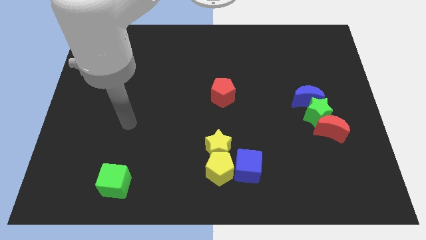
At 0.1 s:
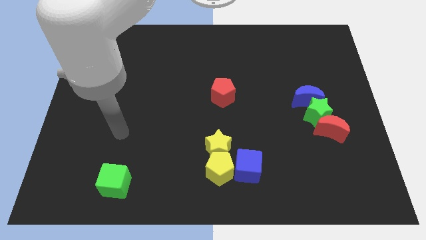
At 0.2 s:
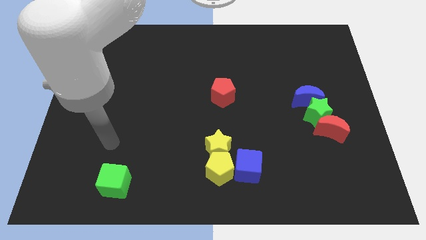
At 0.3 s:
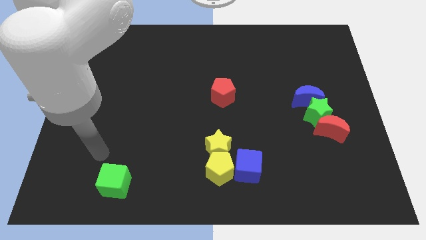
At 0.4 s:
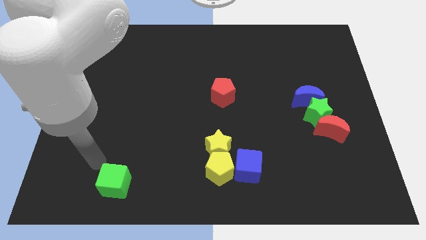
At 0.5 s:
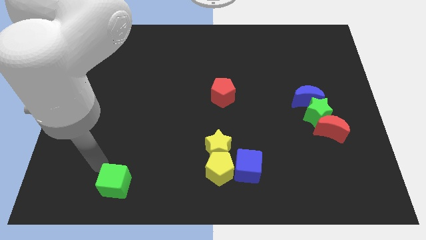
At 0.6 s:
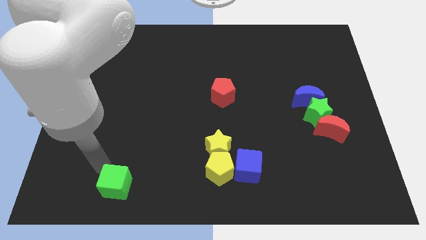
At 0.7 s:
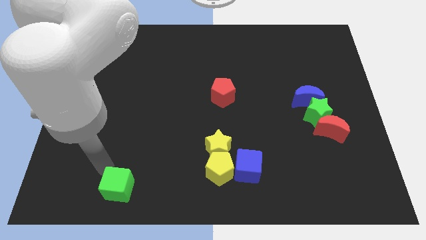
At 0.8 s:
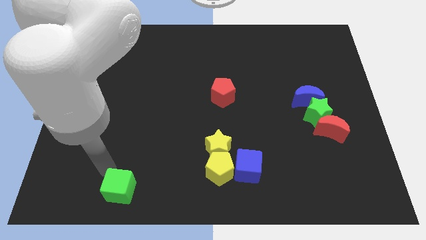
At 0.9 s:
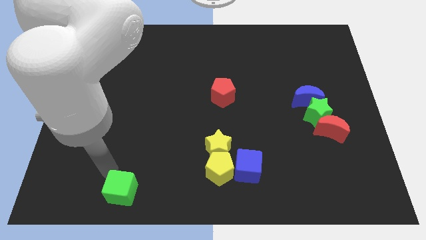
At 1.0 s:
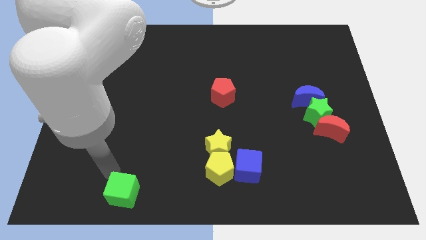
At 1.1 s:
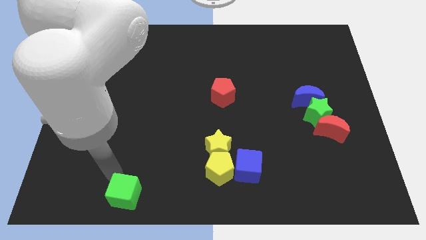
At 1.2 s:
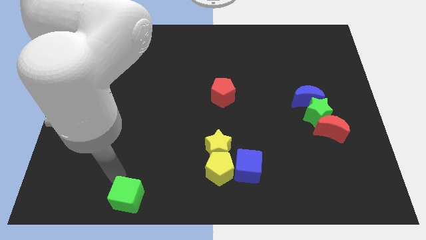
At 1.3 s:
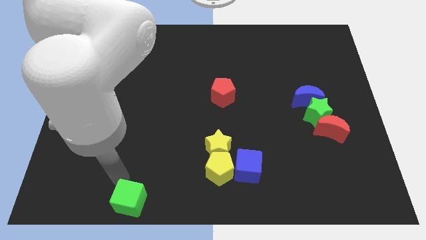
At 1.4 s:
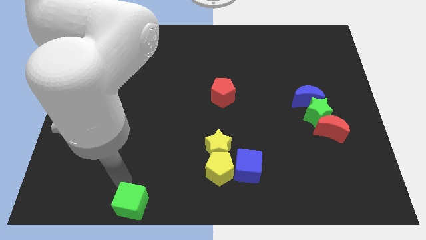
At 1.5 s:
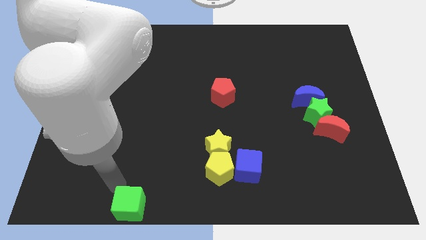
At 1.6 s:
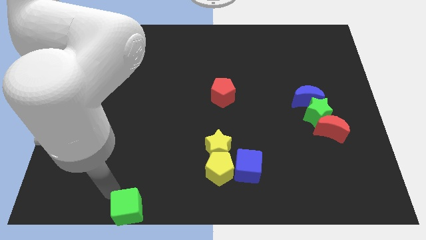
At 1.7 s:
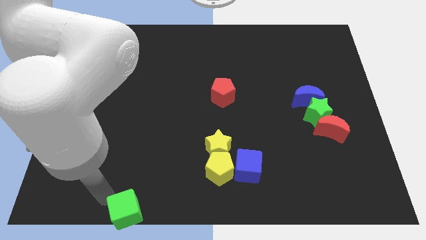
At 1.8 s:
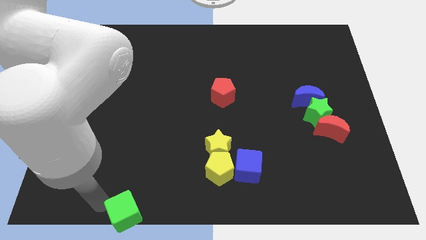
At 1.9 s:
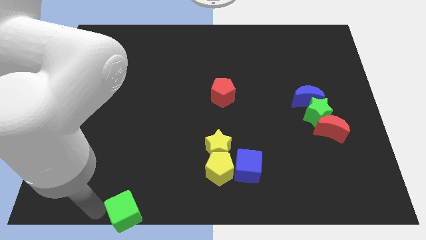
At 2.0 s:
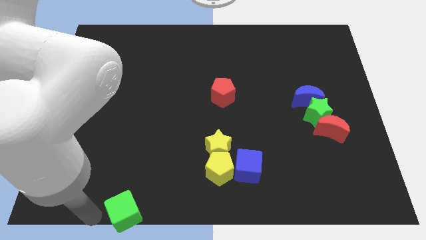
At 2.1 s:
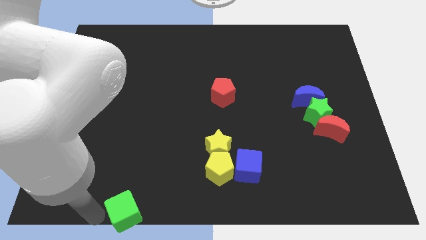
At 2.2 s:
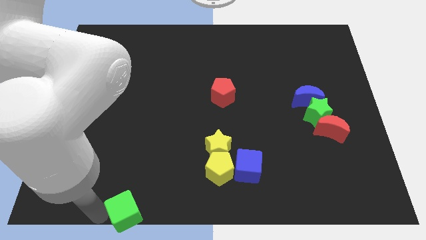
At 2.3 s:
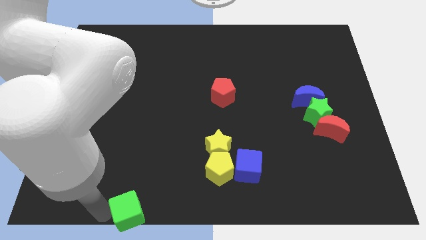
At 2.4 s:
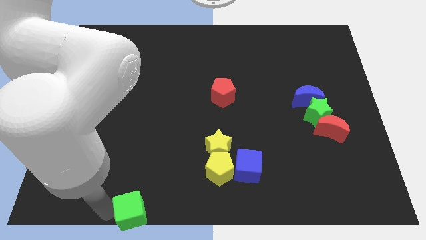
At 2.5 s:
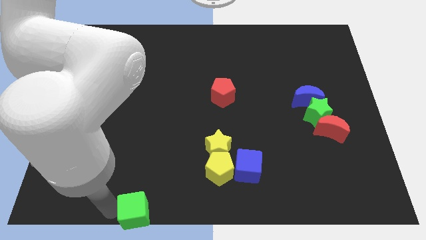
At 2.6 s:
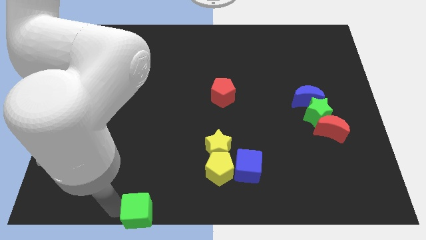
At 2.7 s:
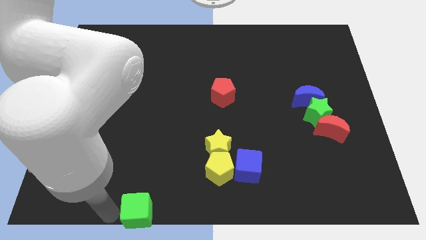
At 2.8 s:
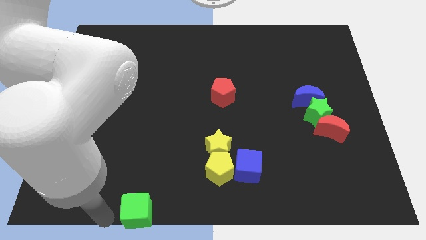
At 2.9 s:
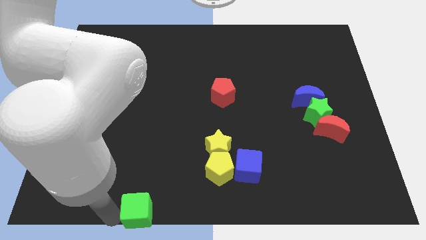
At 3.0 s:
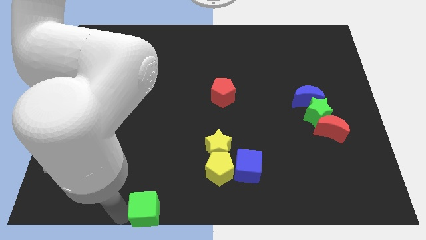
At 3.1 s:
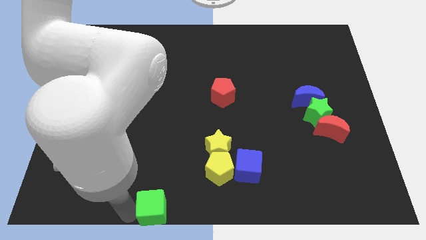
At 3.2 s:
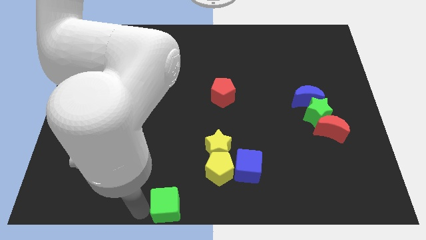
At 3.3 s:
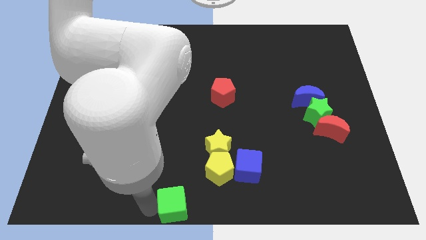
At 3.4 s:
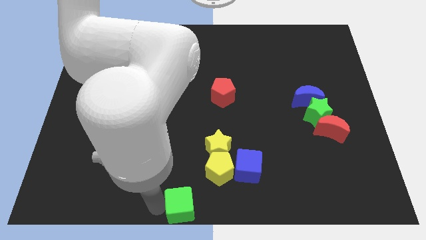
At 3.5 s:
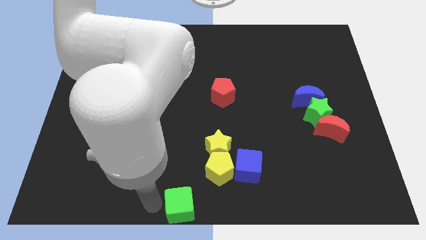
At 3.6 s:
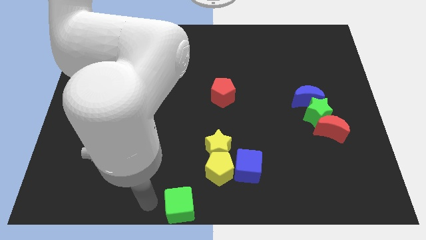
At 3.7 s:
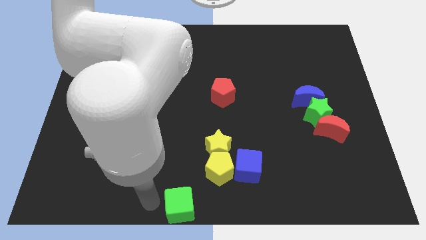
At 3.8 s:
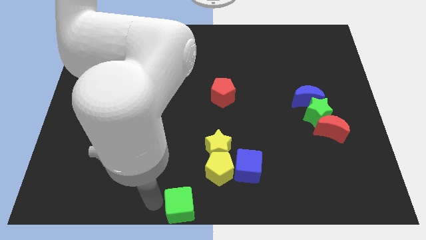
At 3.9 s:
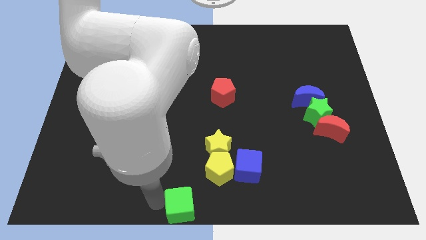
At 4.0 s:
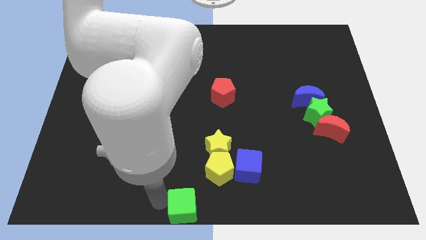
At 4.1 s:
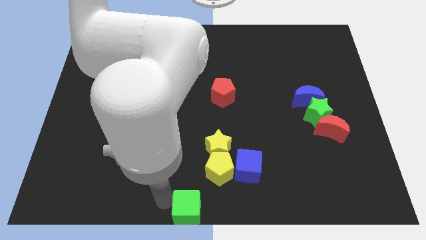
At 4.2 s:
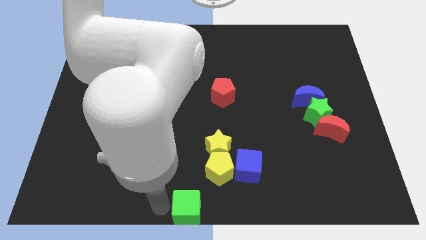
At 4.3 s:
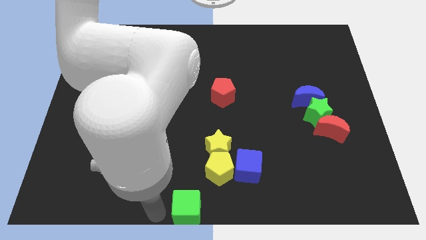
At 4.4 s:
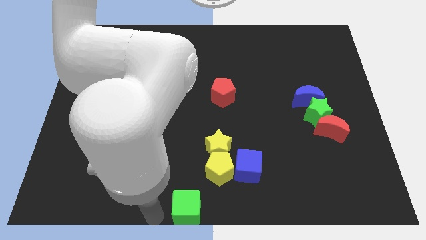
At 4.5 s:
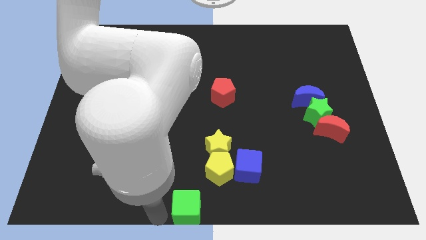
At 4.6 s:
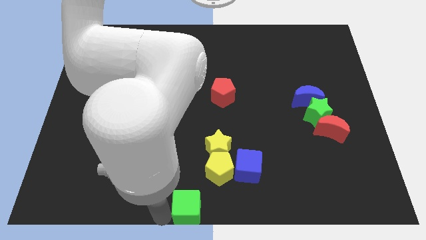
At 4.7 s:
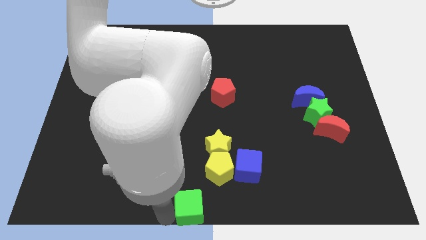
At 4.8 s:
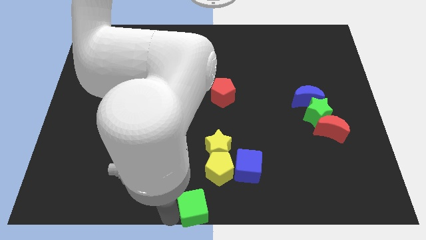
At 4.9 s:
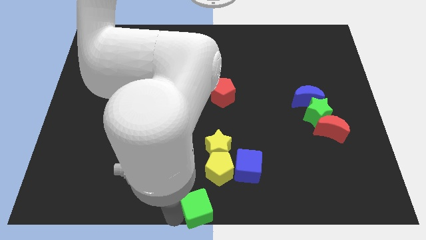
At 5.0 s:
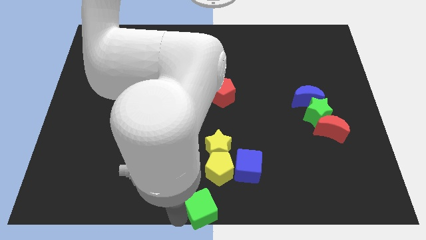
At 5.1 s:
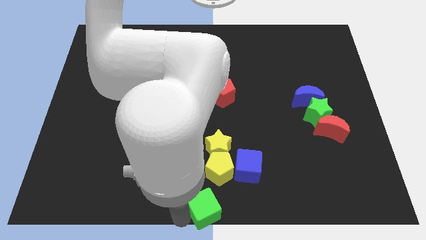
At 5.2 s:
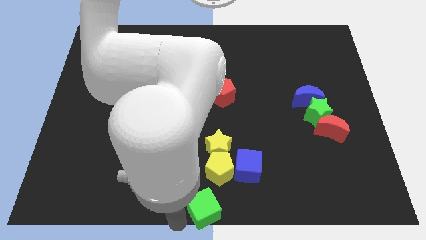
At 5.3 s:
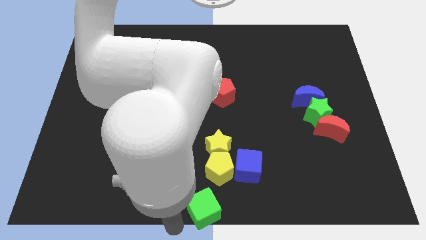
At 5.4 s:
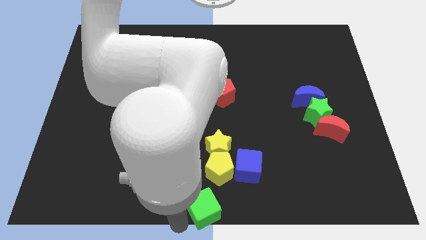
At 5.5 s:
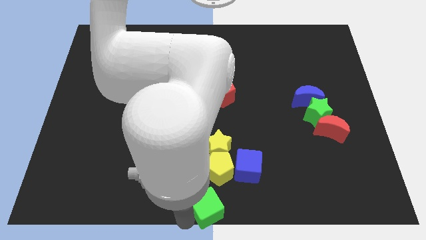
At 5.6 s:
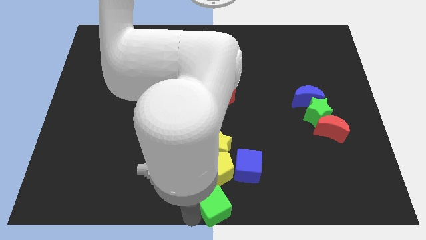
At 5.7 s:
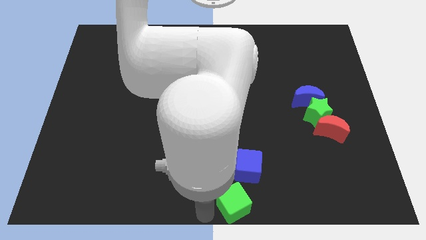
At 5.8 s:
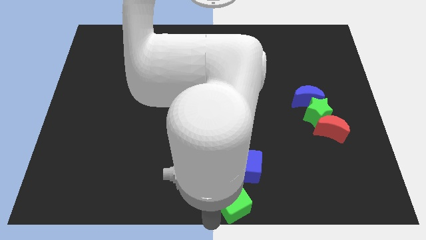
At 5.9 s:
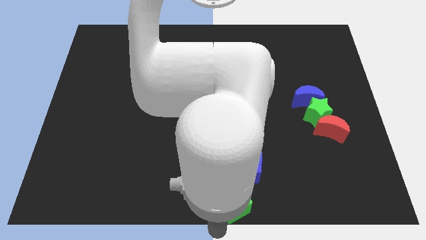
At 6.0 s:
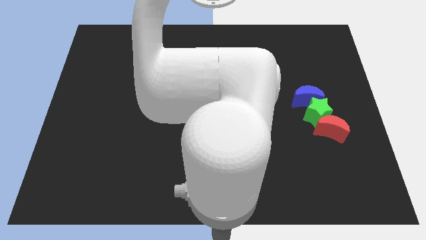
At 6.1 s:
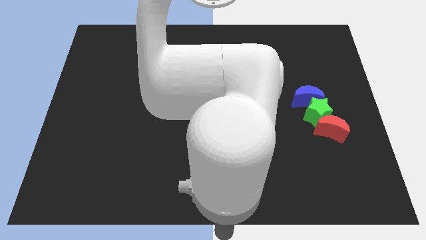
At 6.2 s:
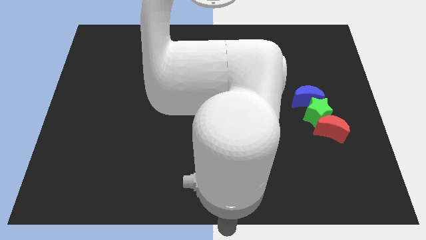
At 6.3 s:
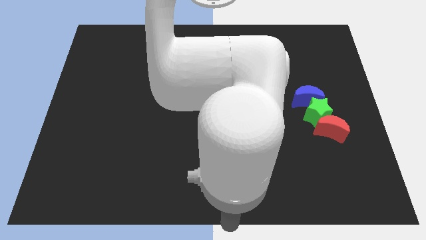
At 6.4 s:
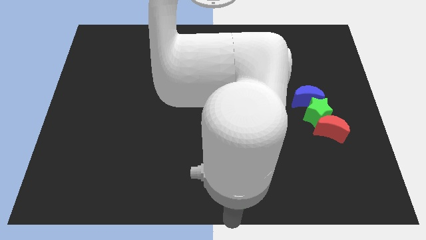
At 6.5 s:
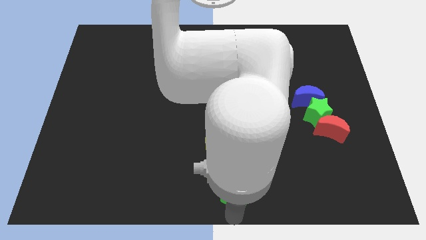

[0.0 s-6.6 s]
push the green cube towards the blue cube

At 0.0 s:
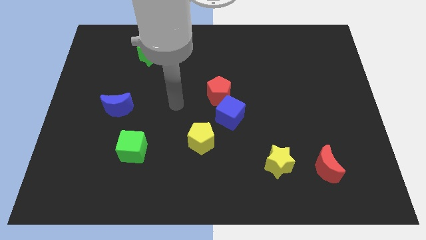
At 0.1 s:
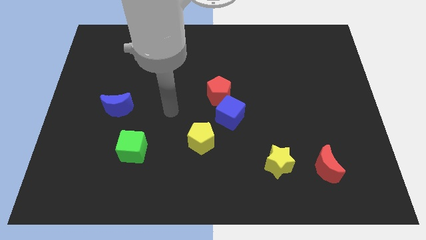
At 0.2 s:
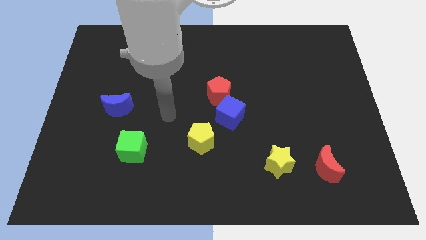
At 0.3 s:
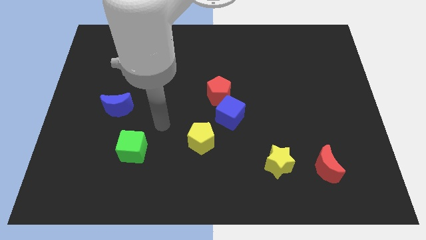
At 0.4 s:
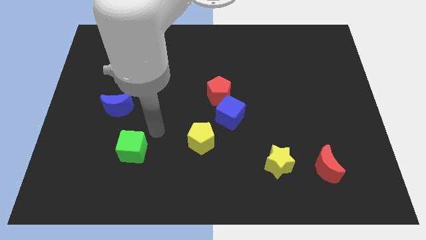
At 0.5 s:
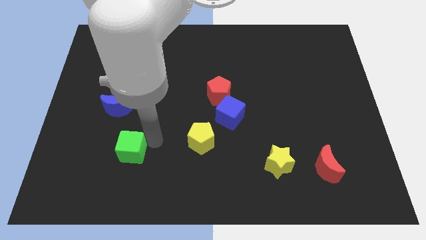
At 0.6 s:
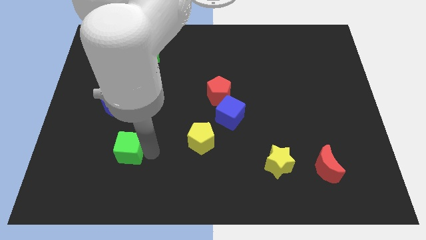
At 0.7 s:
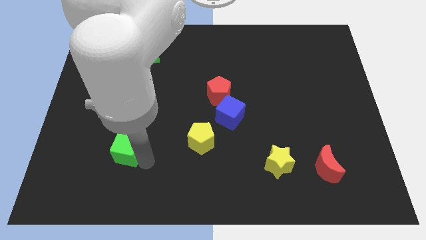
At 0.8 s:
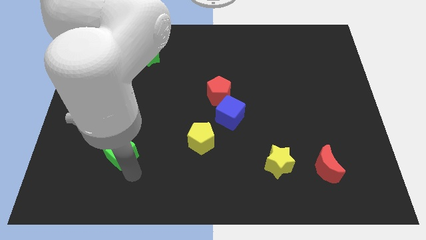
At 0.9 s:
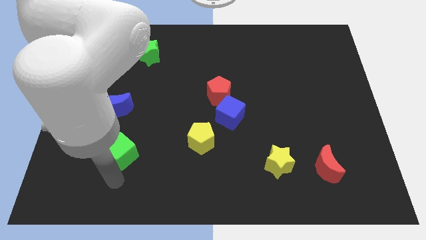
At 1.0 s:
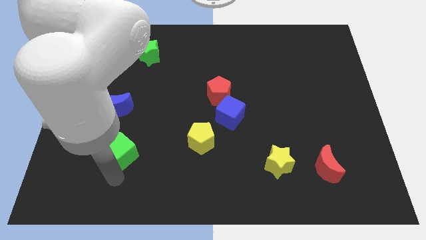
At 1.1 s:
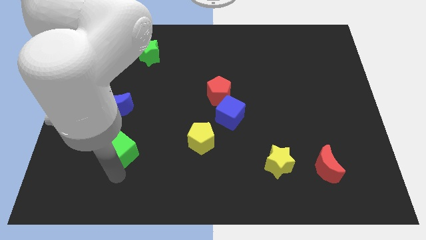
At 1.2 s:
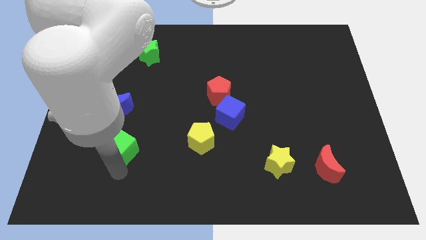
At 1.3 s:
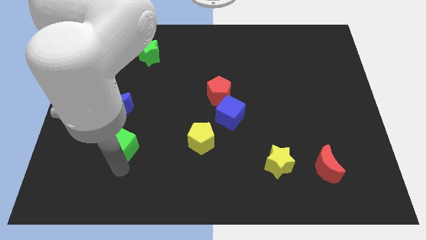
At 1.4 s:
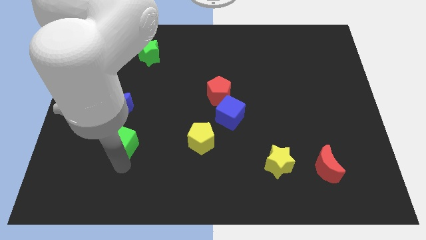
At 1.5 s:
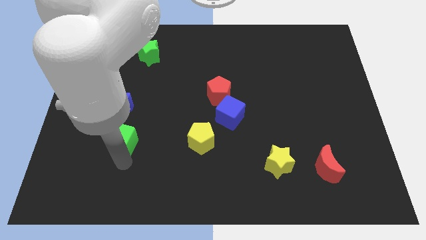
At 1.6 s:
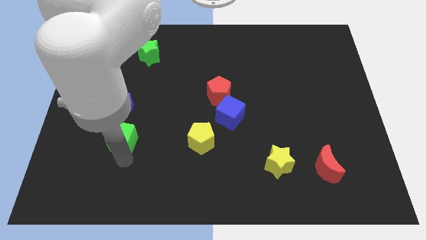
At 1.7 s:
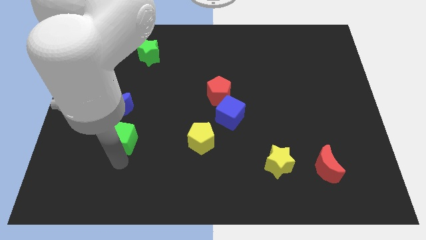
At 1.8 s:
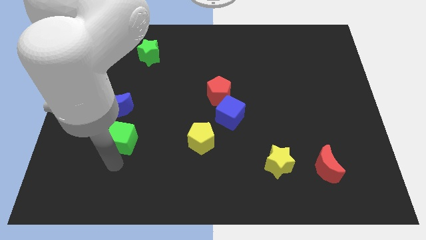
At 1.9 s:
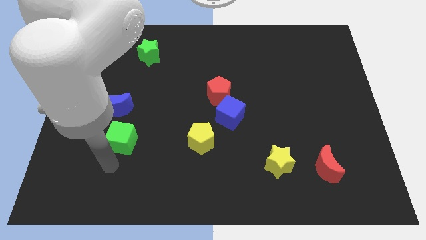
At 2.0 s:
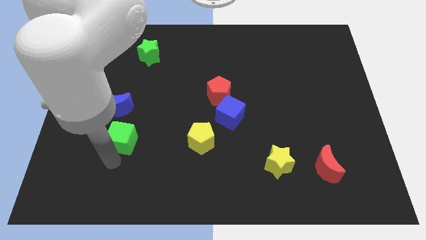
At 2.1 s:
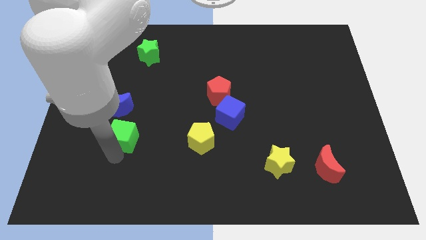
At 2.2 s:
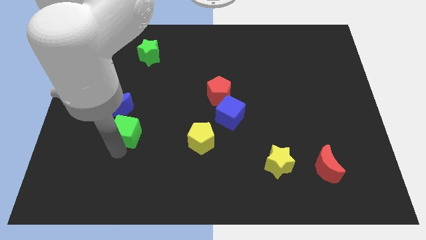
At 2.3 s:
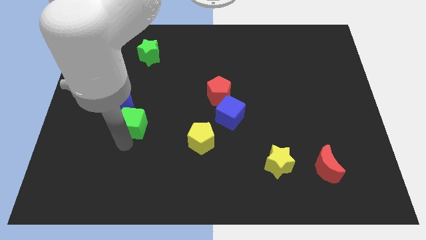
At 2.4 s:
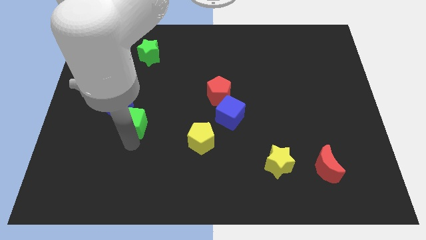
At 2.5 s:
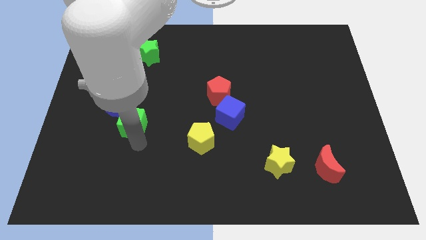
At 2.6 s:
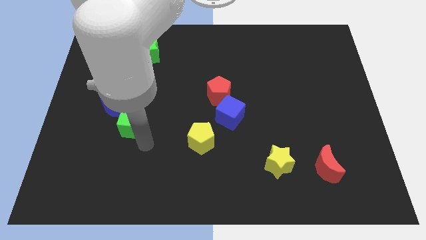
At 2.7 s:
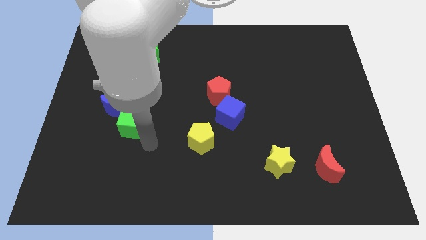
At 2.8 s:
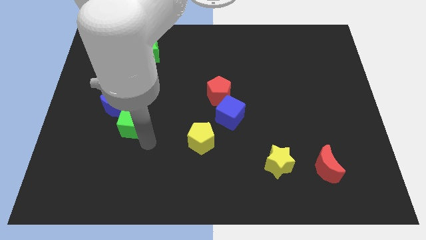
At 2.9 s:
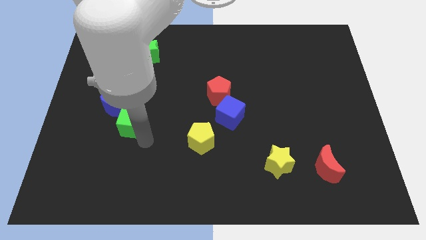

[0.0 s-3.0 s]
put the green cube to the blue moon
